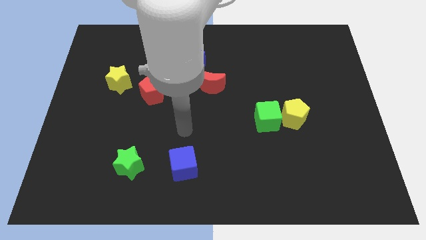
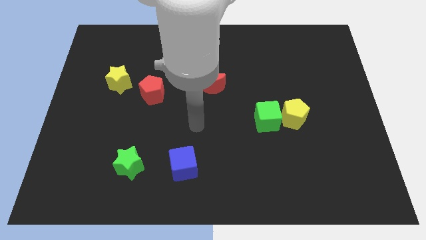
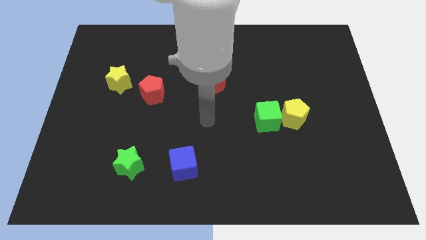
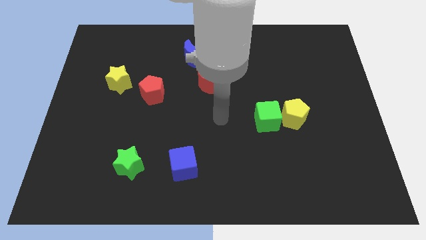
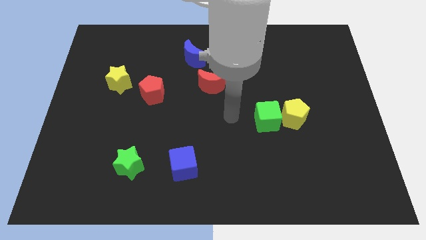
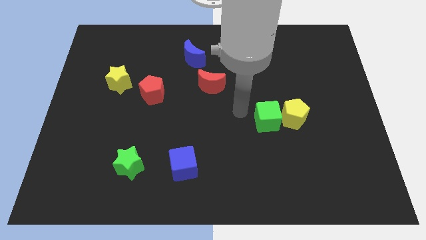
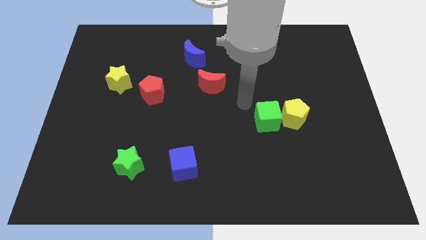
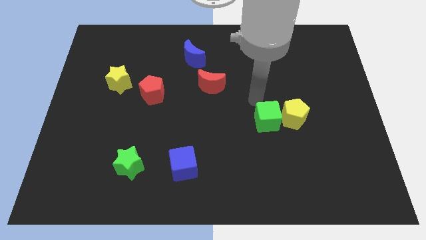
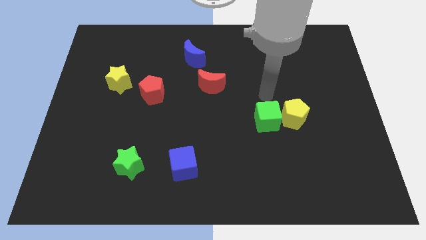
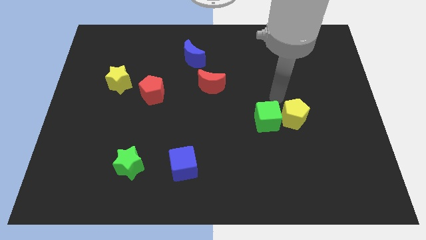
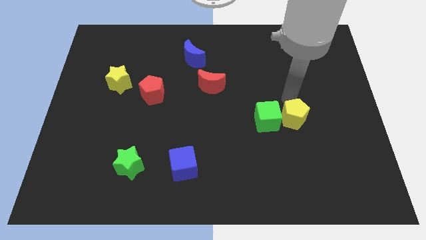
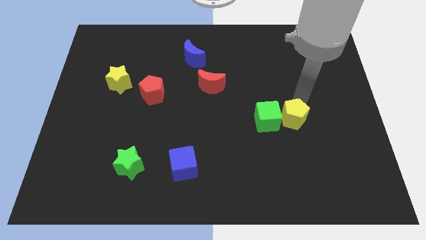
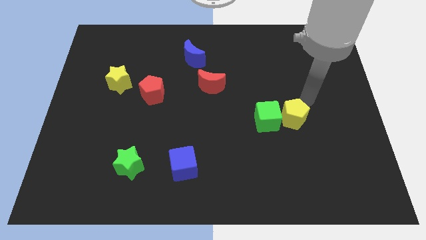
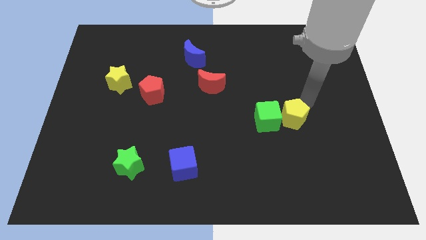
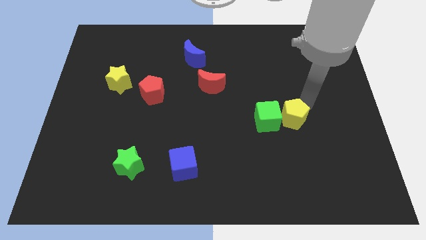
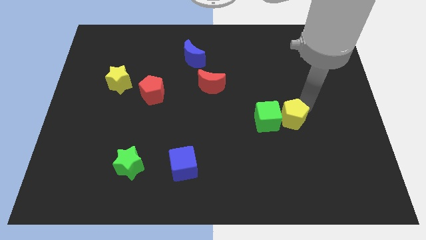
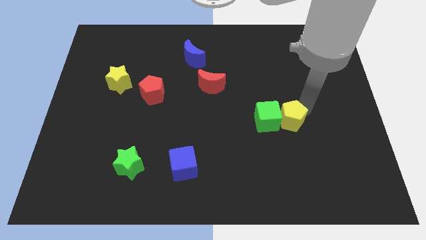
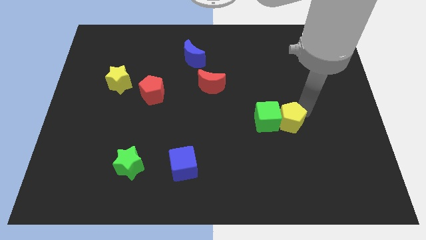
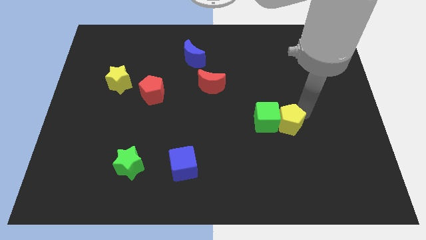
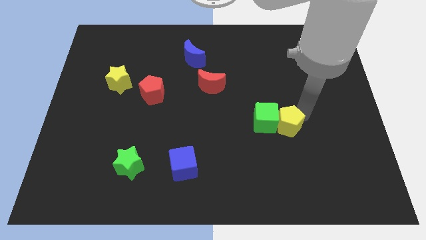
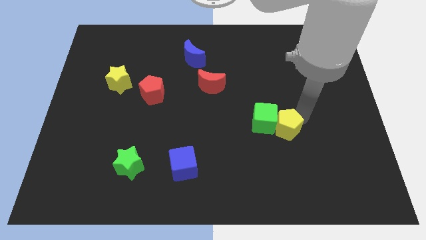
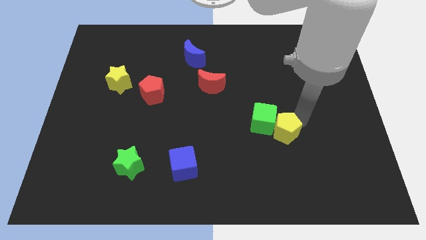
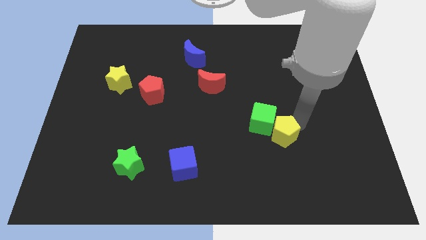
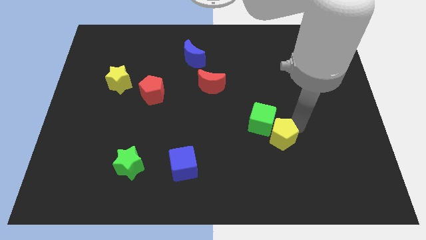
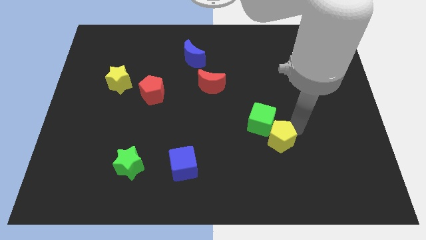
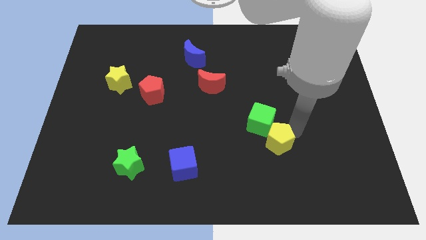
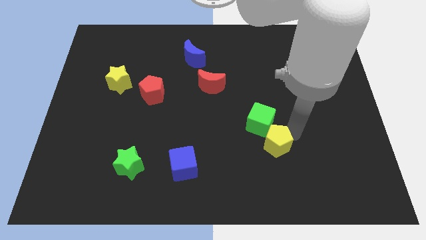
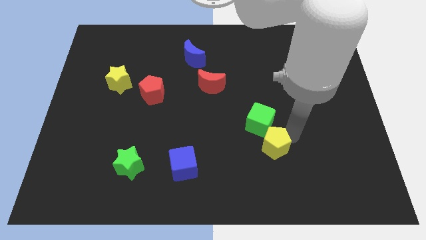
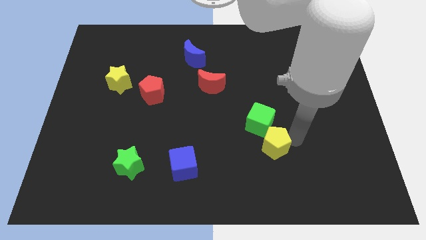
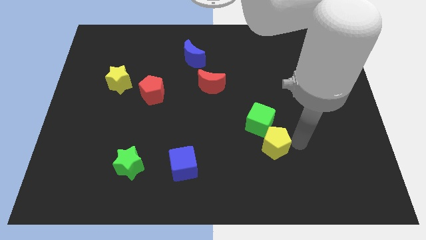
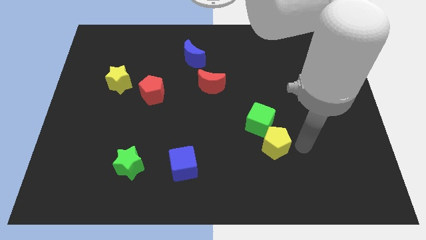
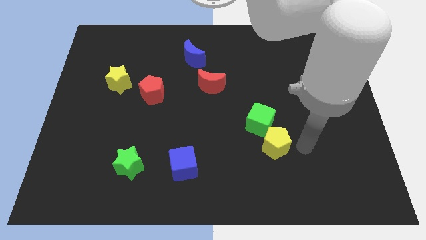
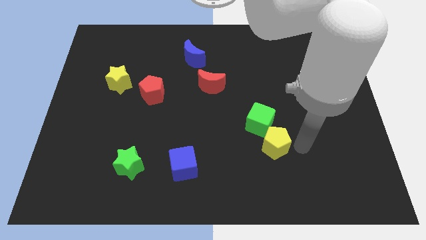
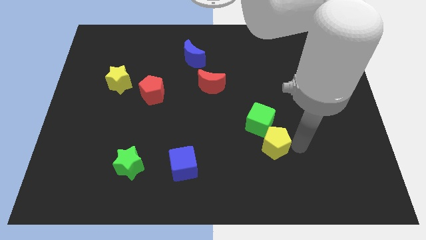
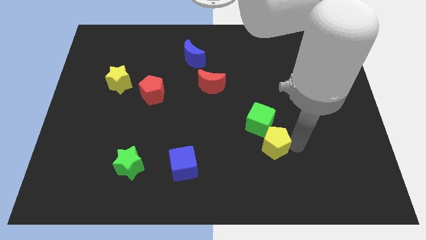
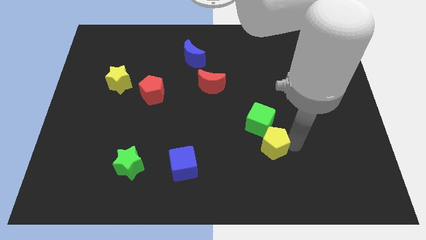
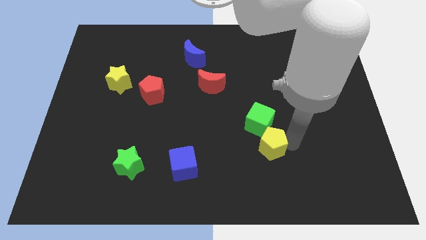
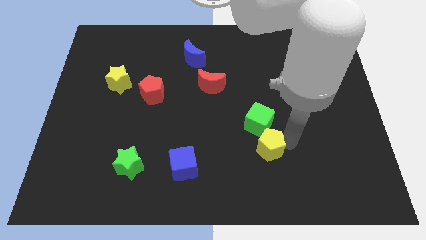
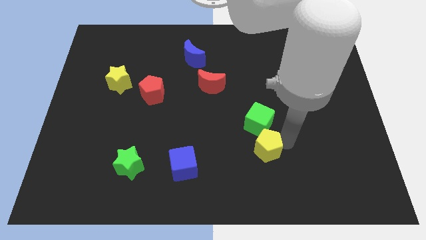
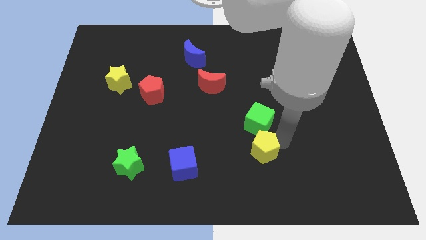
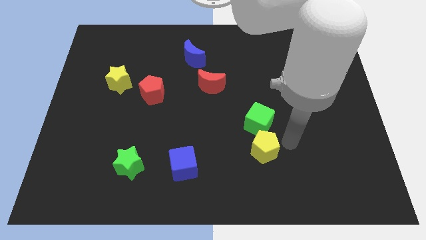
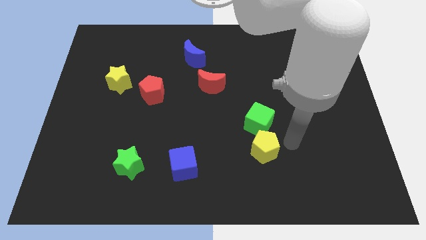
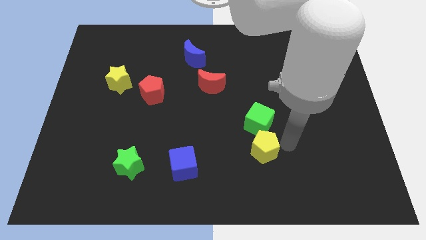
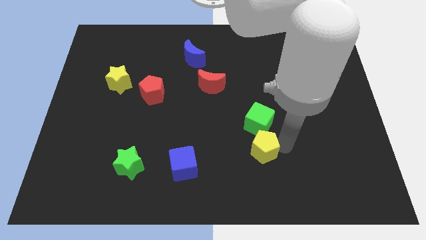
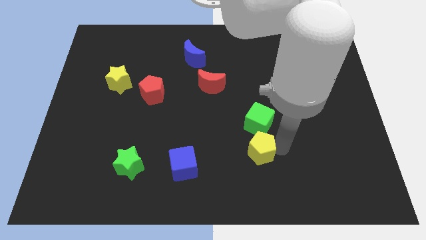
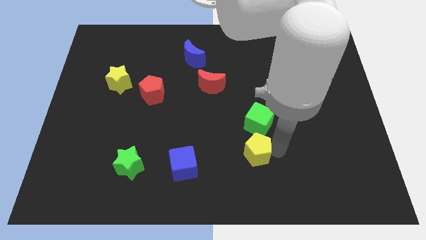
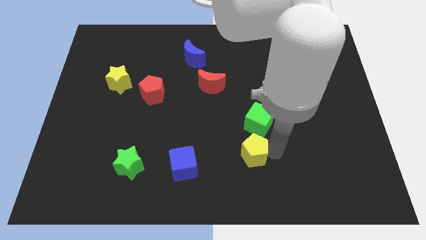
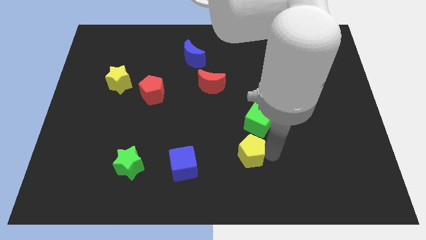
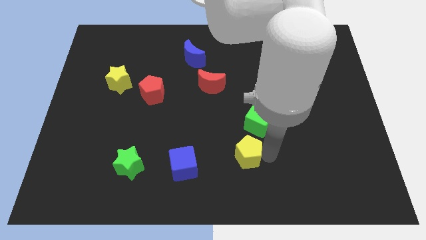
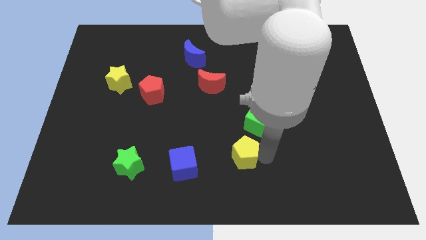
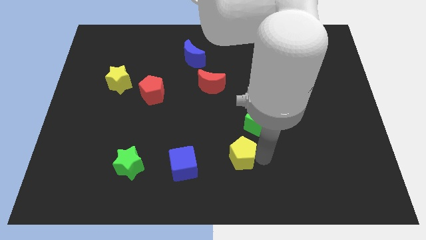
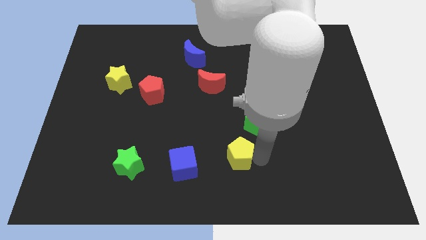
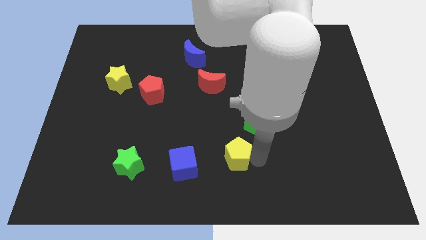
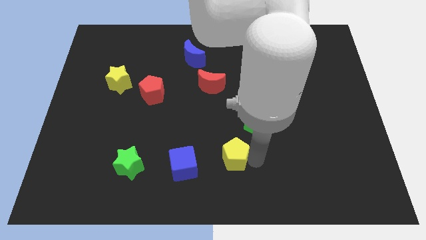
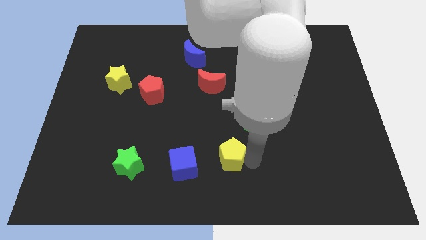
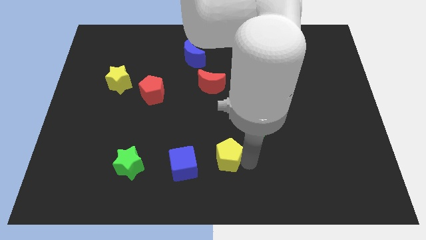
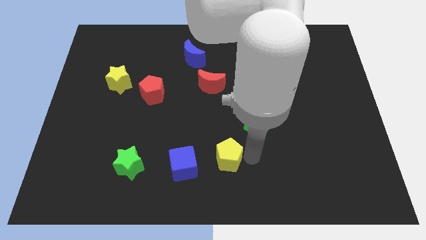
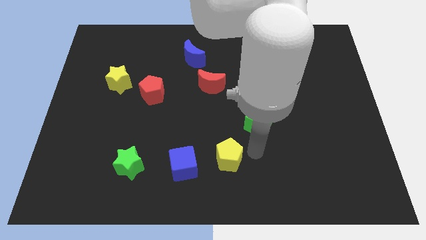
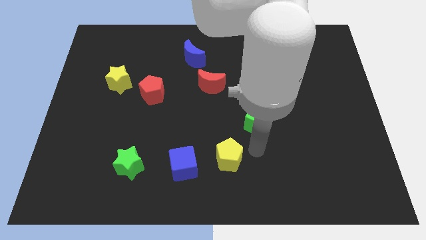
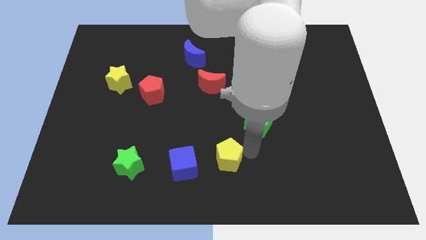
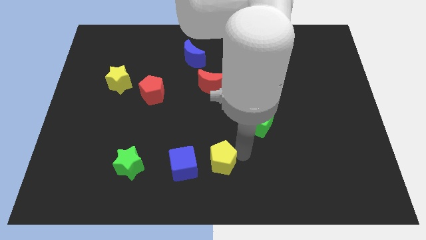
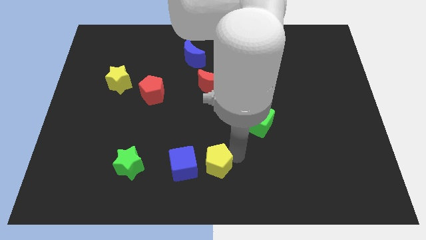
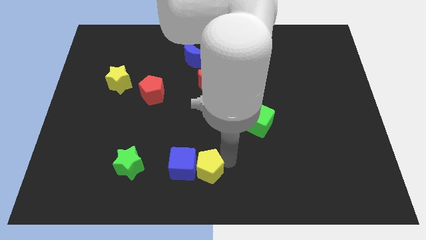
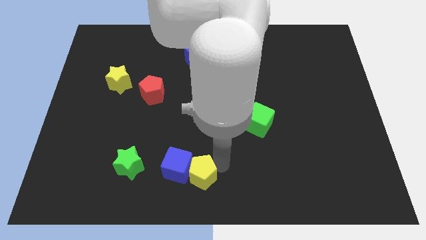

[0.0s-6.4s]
push the yellow pentagon right of the green star

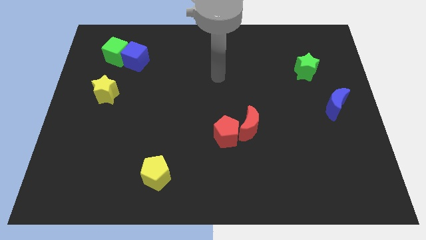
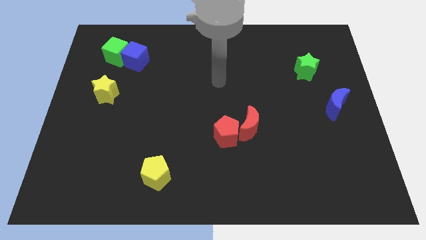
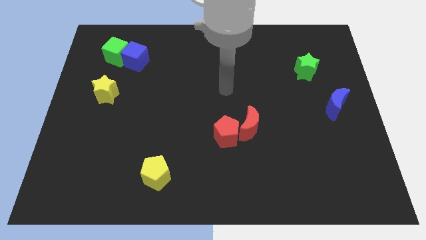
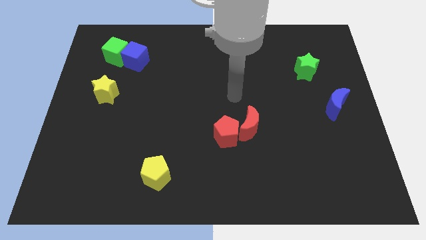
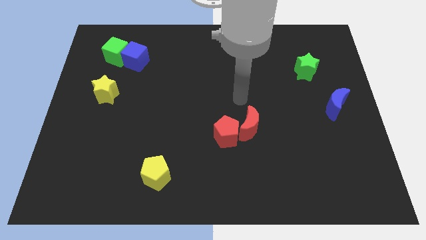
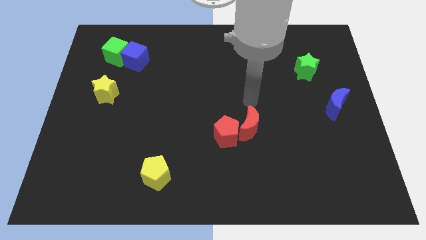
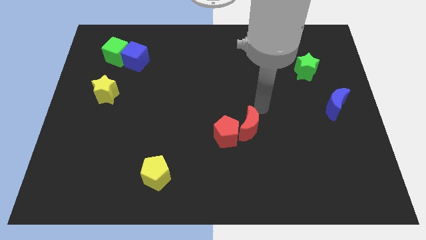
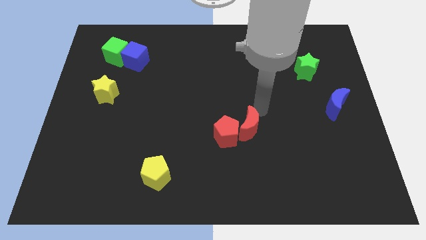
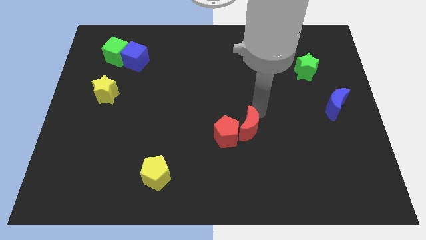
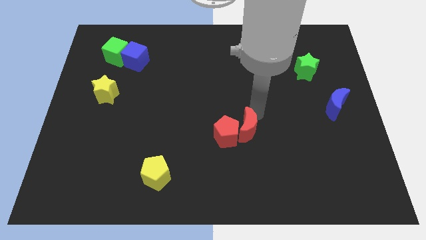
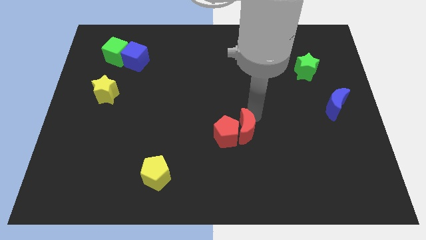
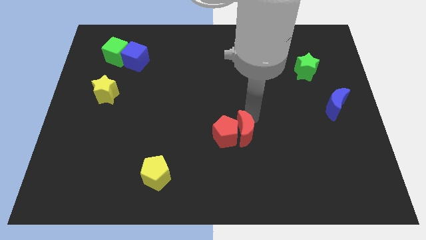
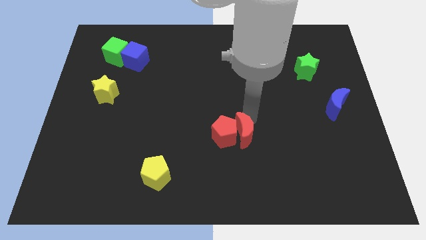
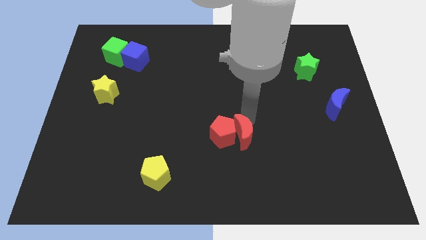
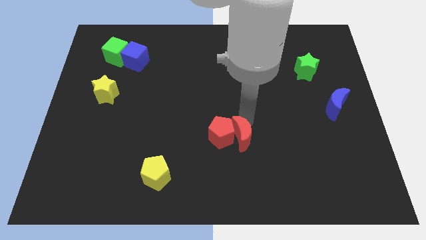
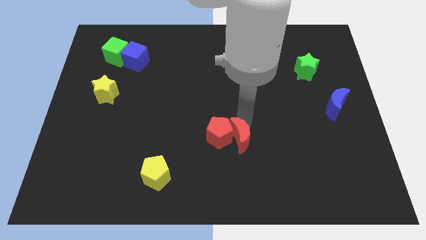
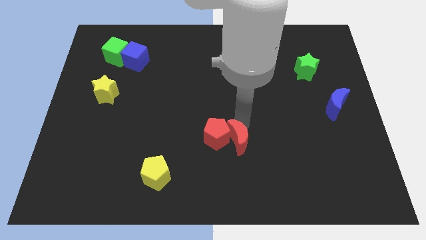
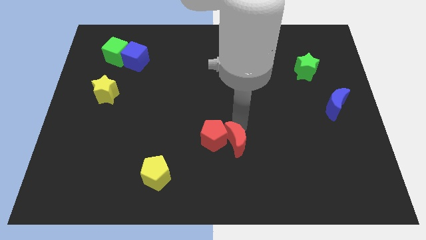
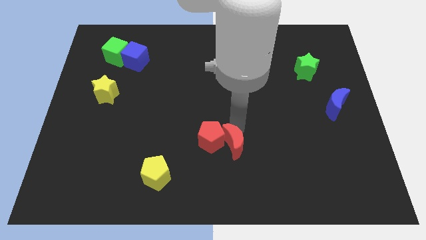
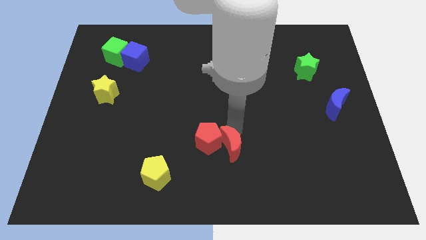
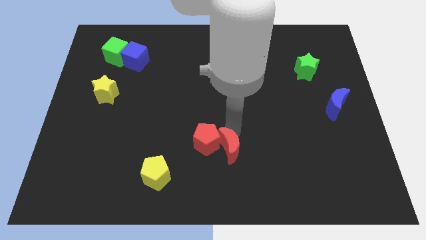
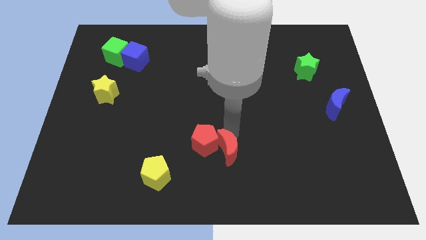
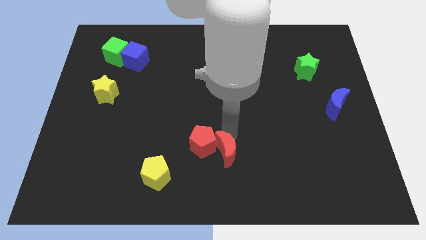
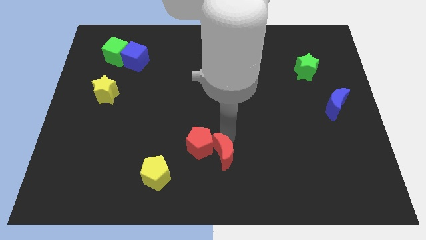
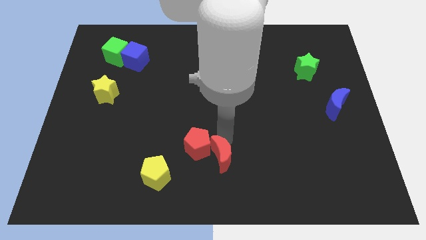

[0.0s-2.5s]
slide the red moon to the right side of the yellow pentagon
